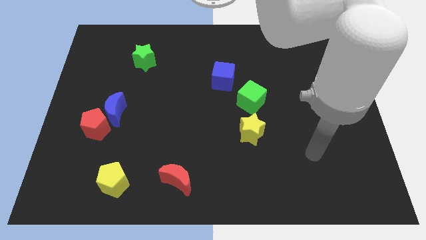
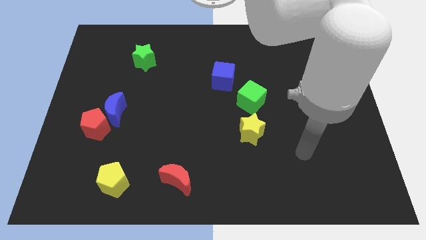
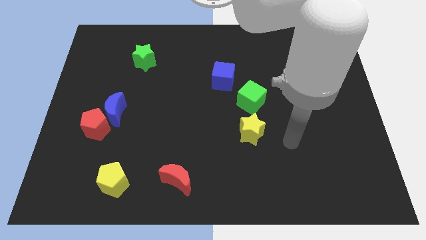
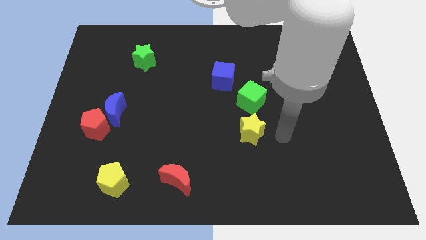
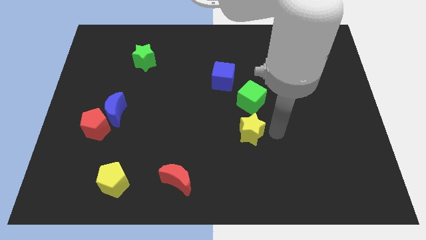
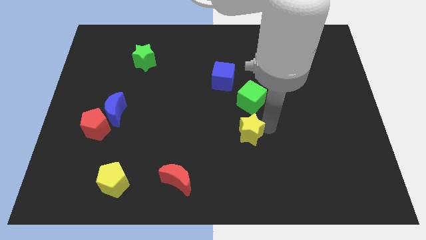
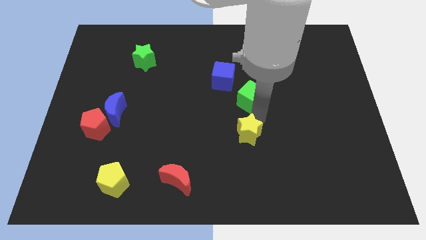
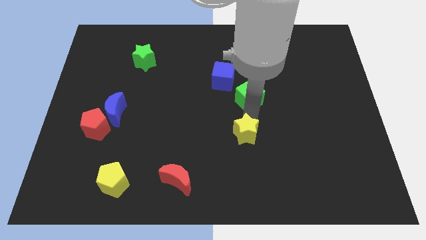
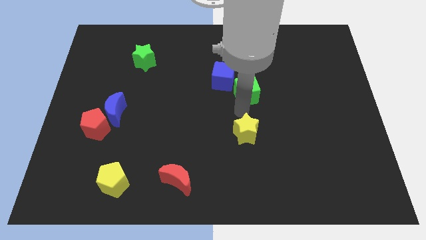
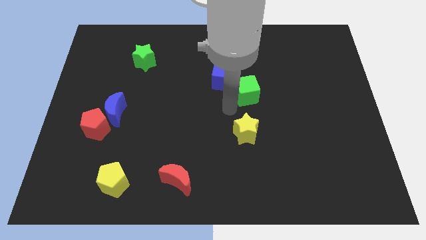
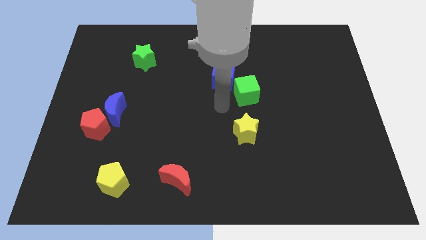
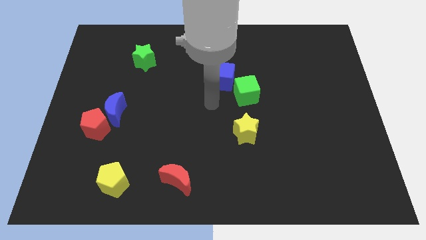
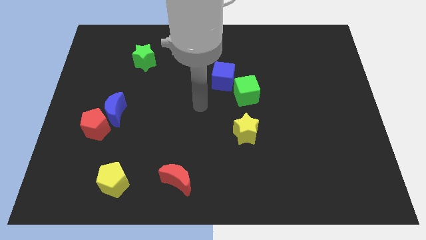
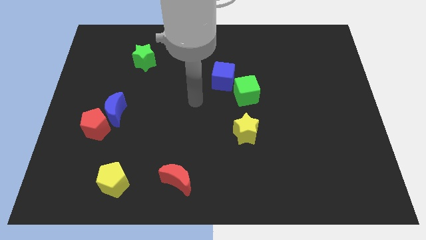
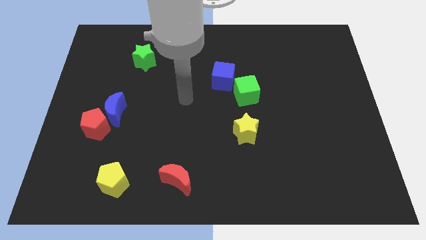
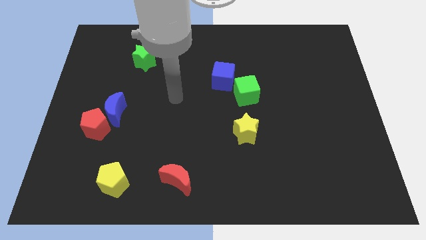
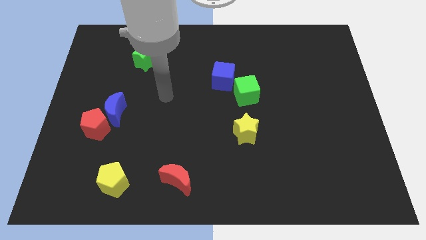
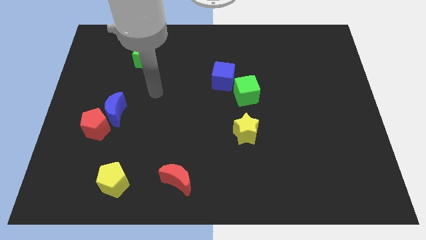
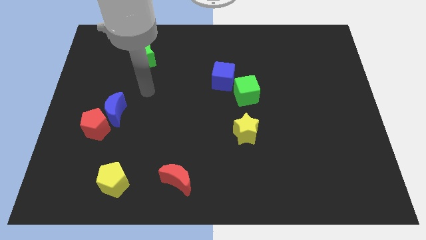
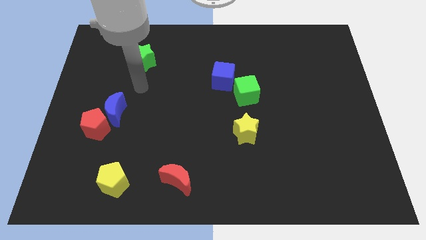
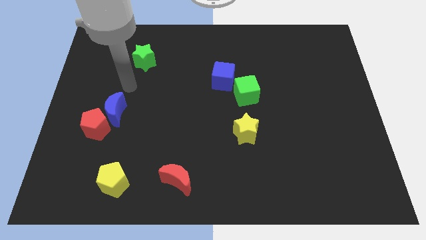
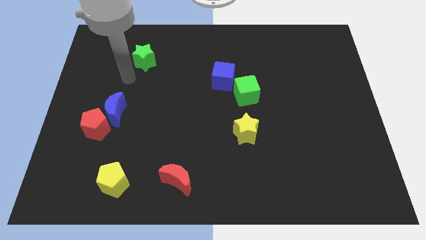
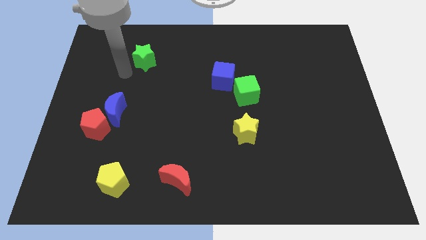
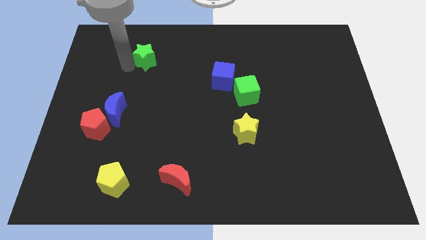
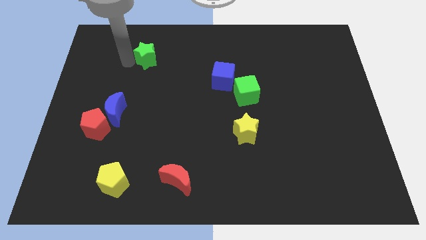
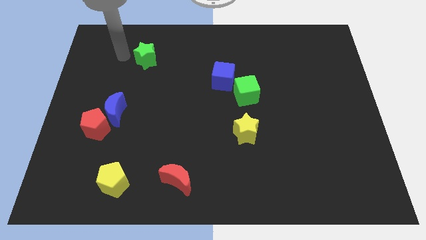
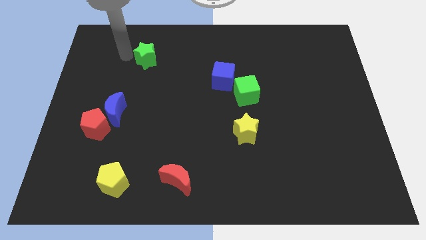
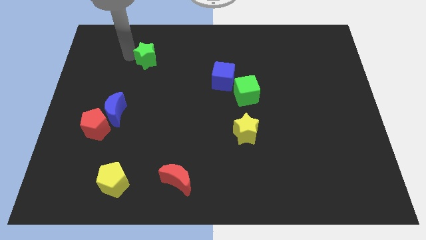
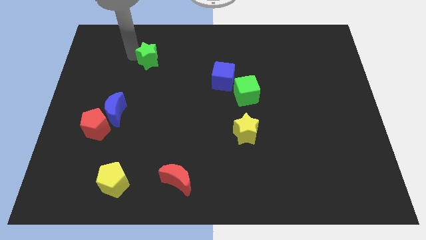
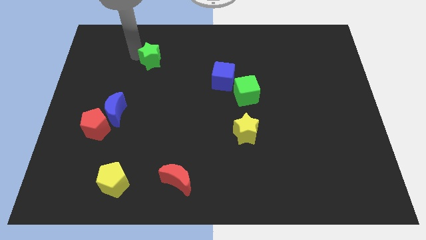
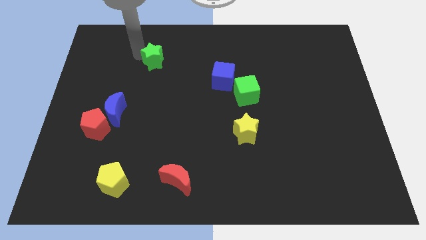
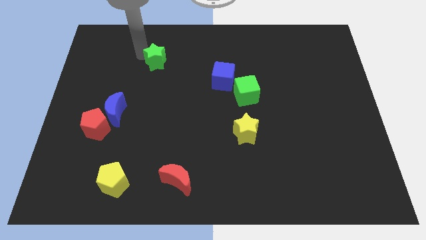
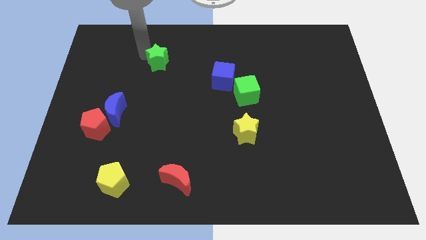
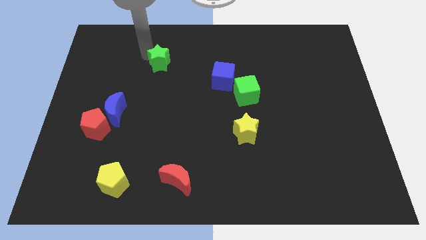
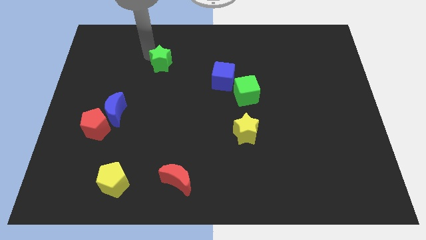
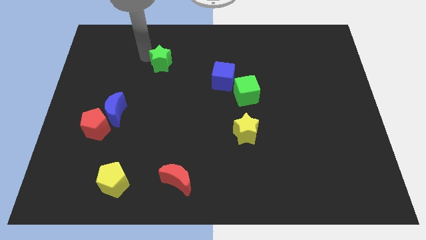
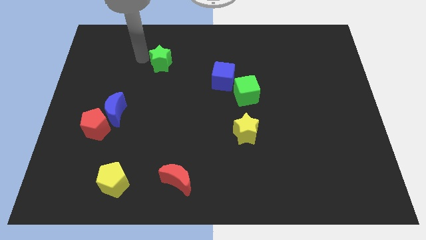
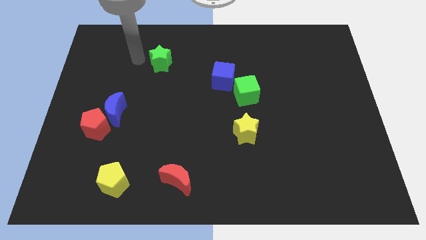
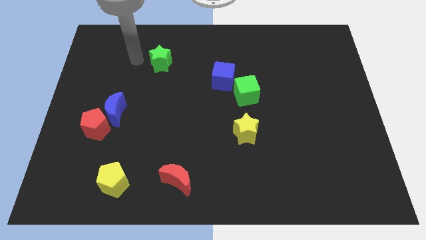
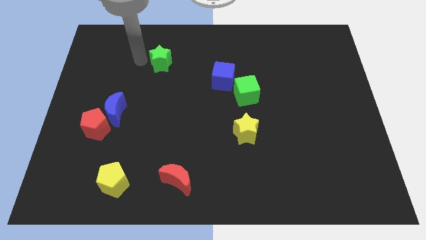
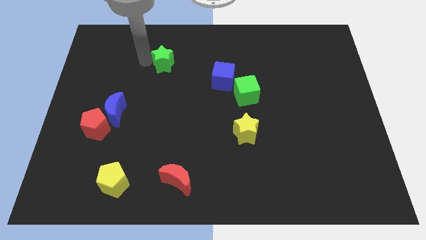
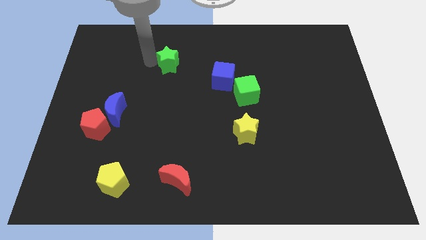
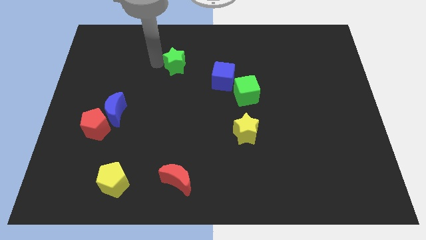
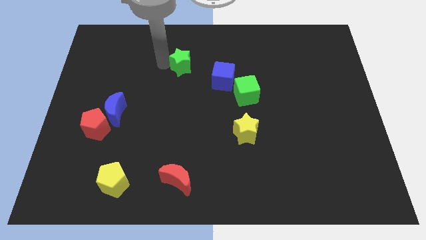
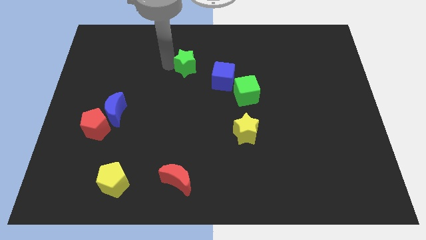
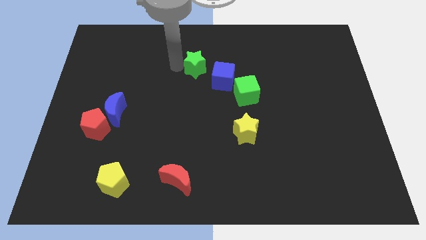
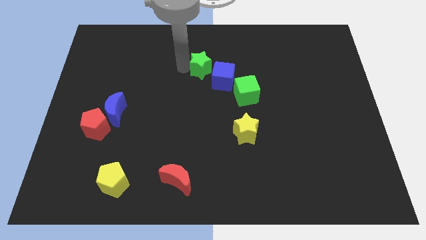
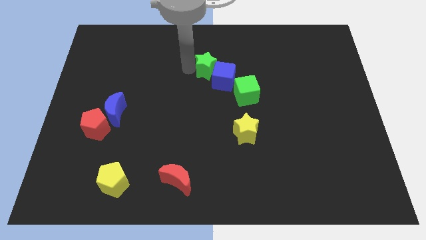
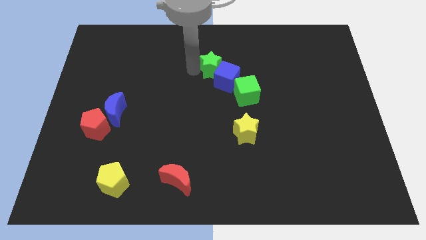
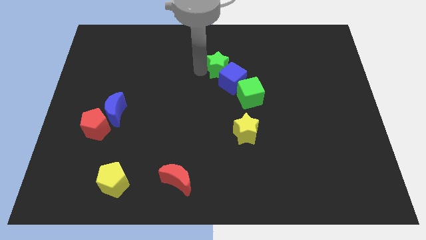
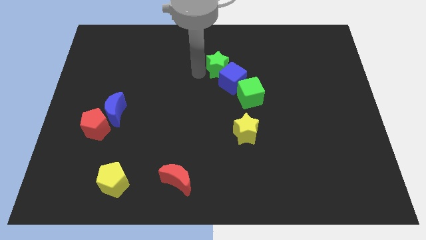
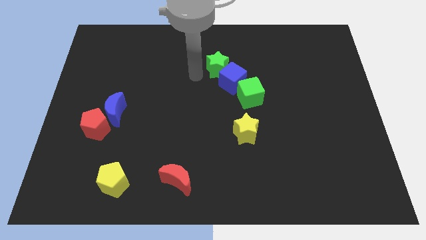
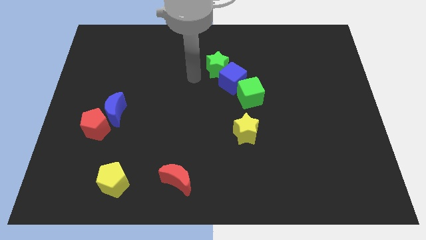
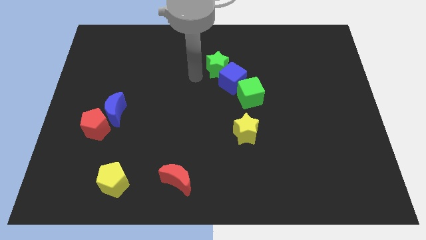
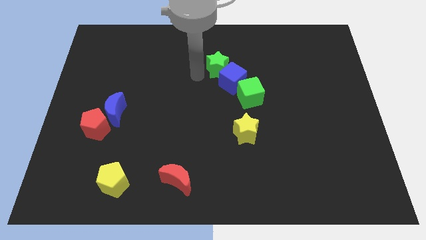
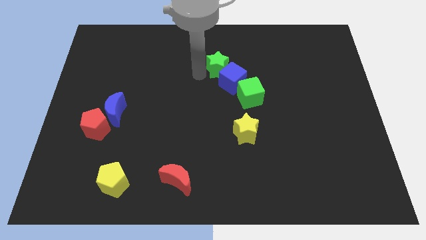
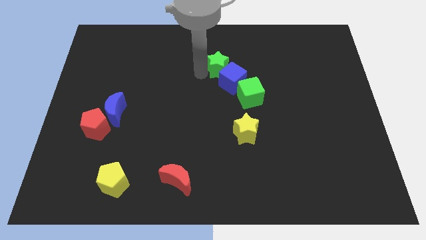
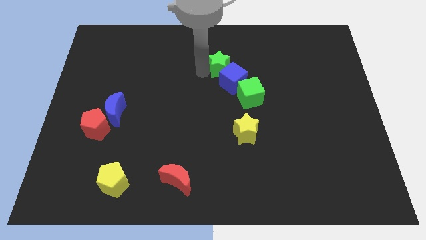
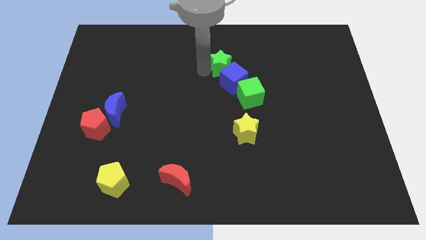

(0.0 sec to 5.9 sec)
push the green star to the right

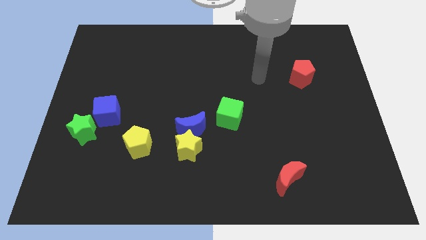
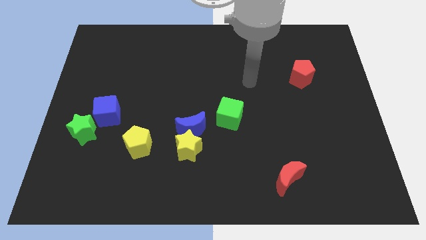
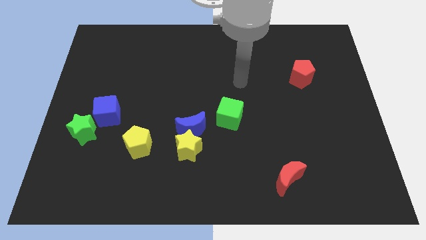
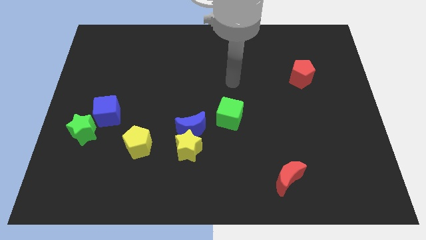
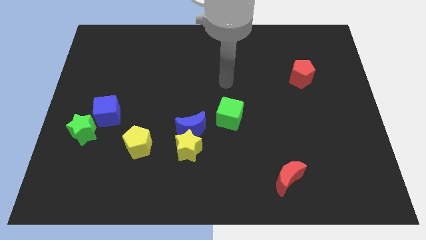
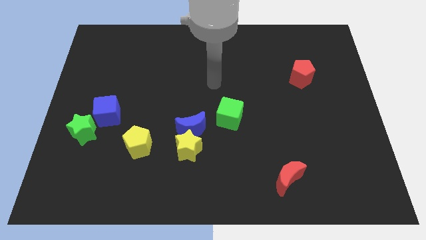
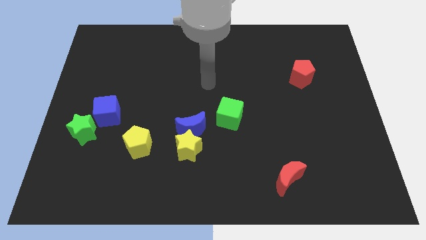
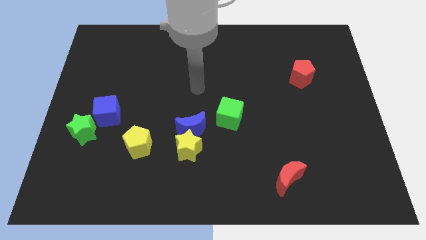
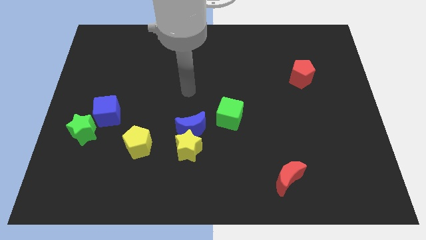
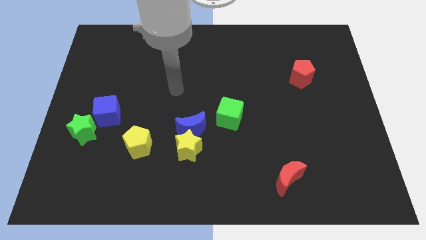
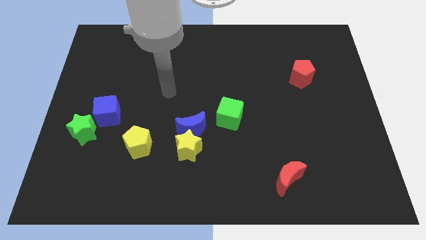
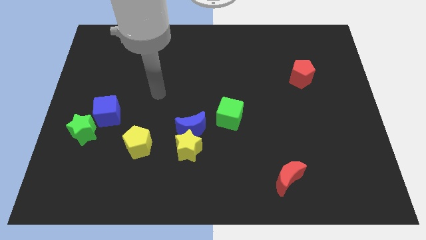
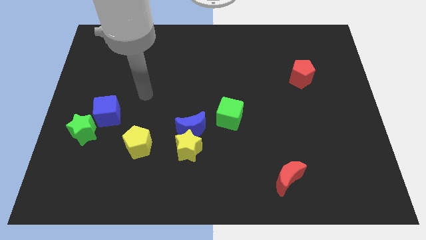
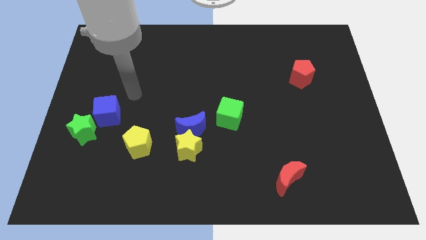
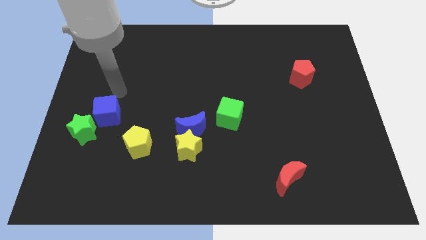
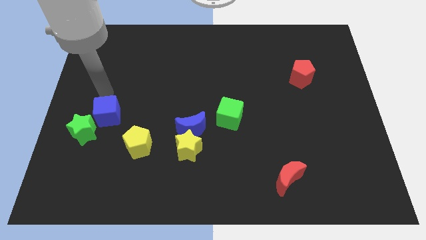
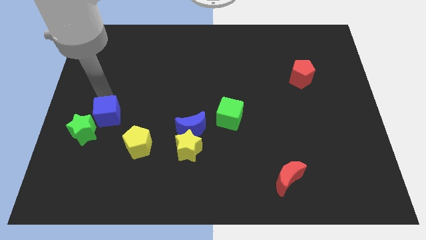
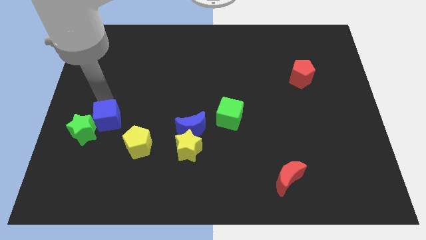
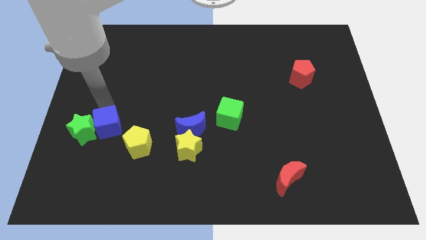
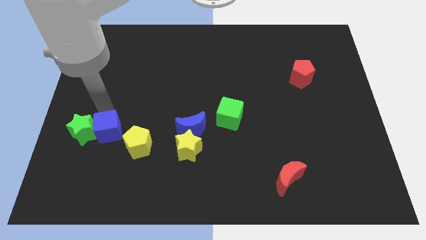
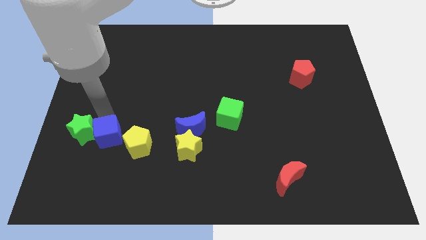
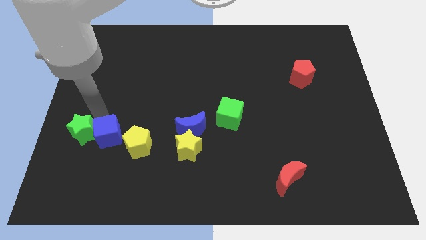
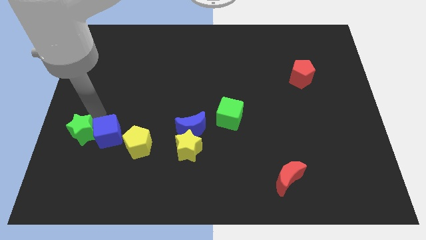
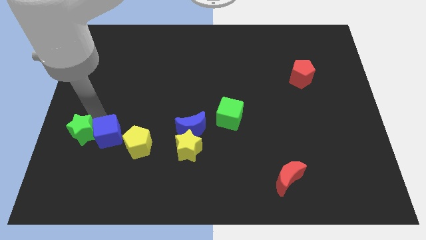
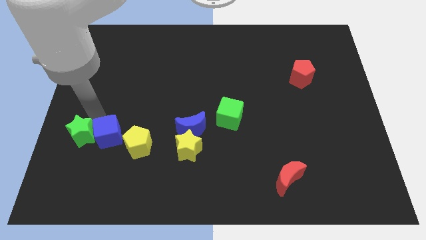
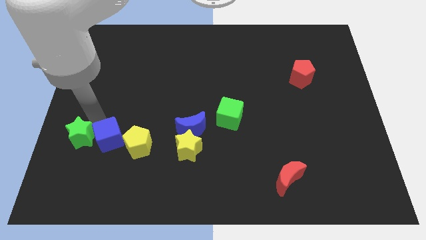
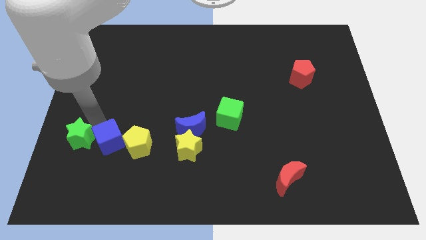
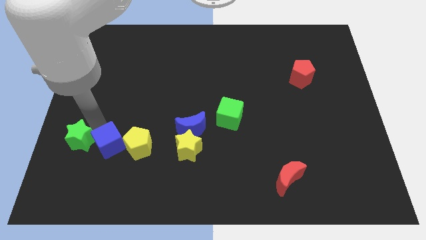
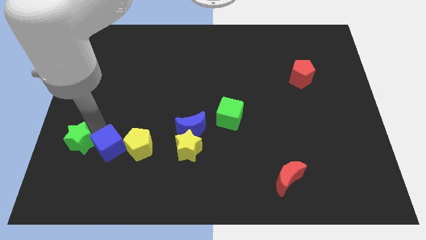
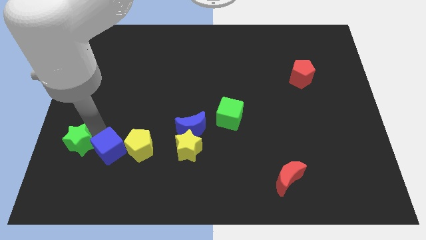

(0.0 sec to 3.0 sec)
move the blue cube down and to the right diagonally a little
